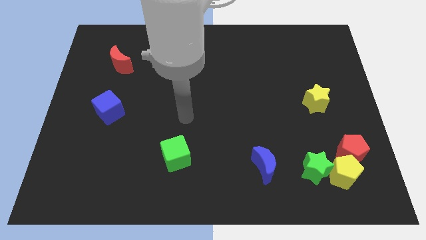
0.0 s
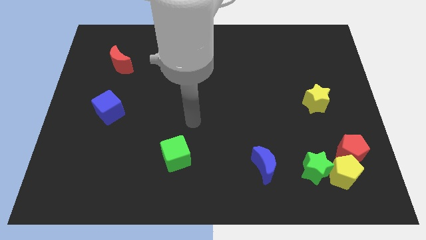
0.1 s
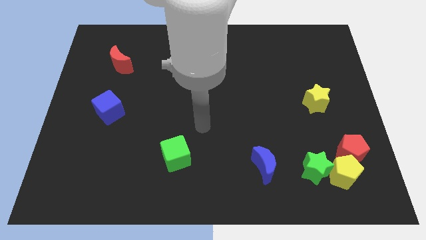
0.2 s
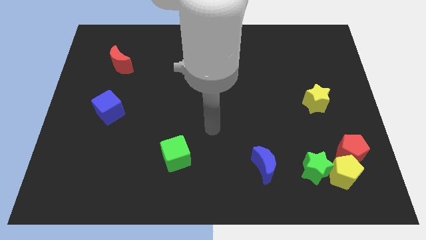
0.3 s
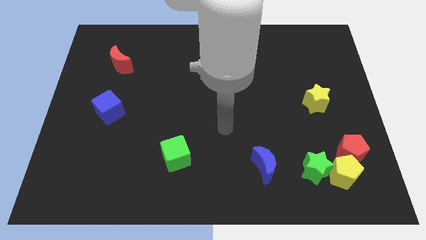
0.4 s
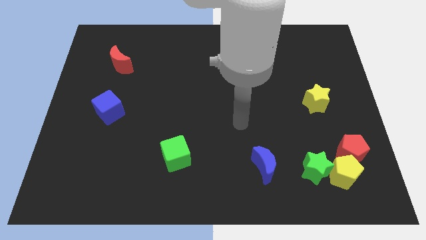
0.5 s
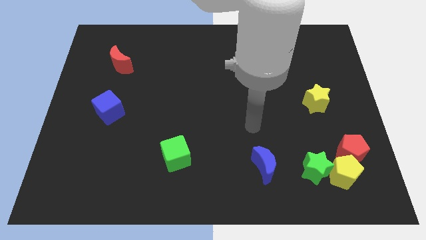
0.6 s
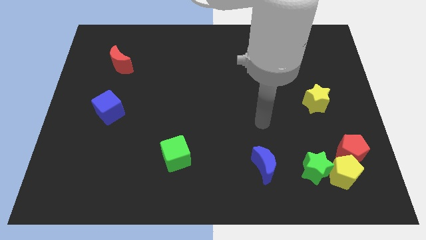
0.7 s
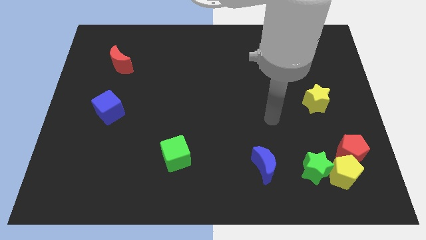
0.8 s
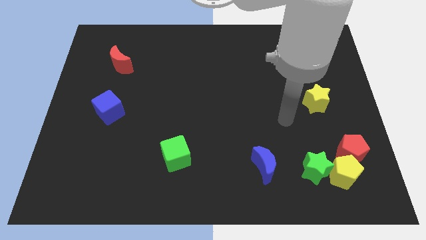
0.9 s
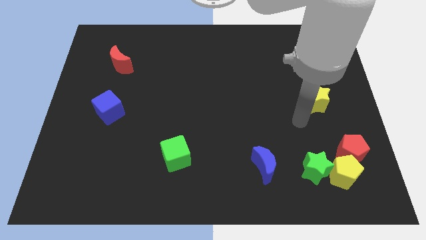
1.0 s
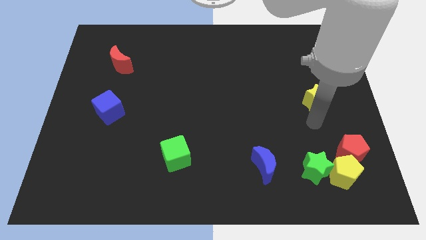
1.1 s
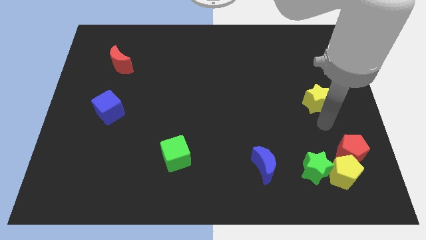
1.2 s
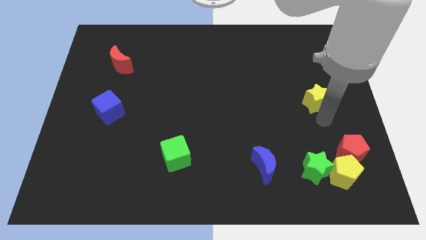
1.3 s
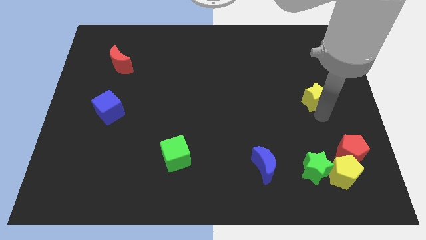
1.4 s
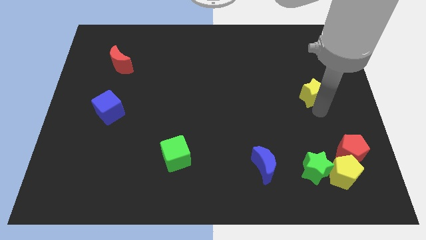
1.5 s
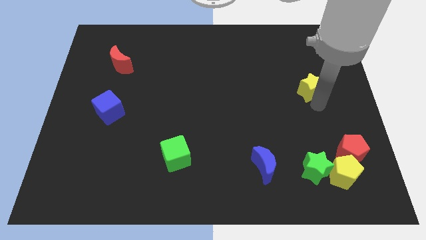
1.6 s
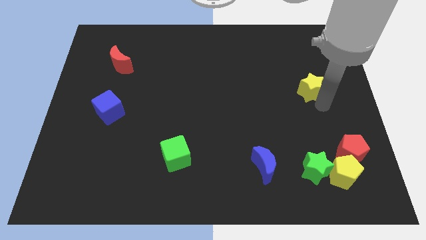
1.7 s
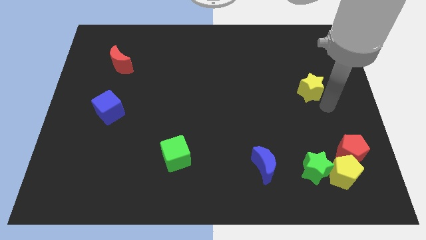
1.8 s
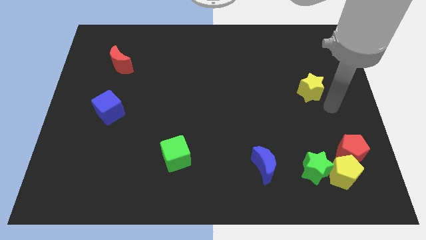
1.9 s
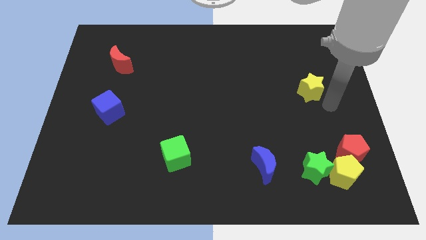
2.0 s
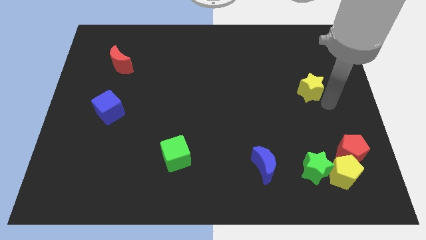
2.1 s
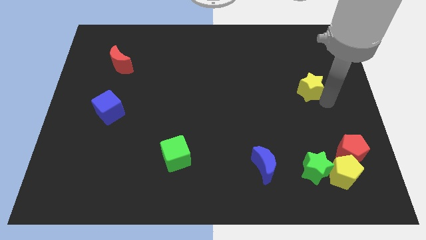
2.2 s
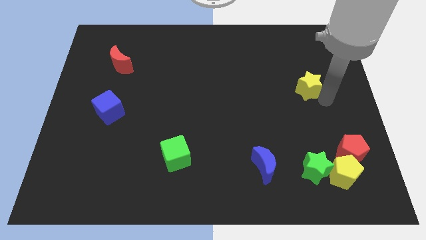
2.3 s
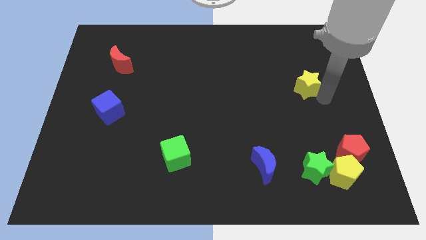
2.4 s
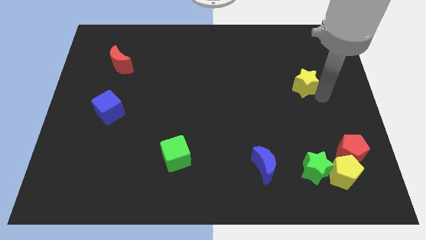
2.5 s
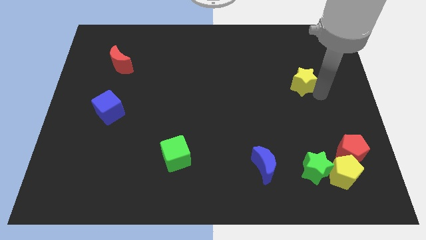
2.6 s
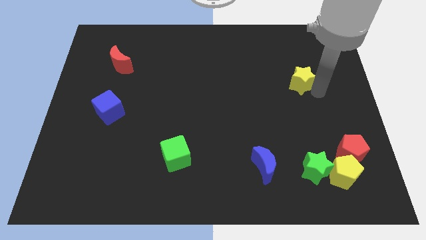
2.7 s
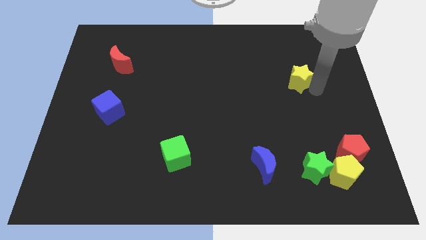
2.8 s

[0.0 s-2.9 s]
push the yellow star up and to the left diagonally a little

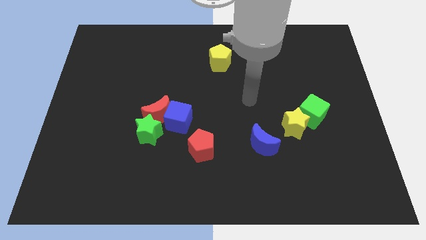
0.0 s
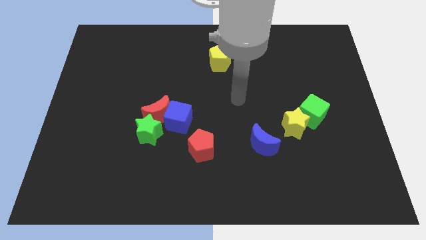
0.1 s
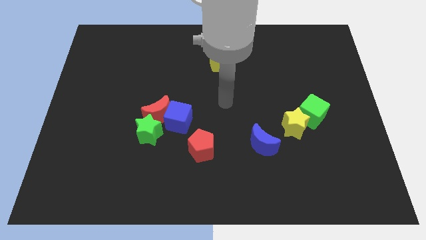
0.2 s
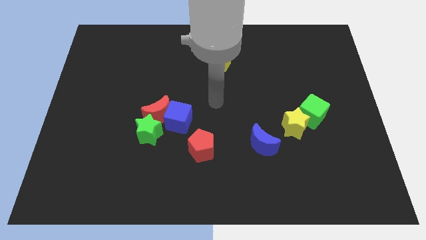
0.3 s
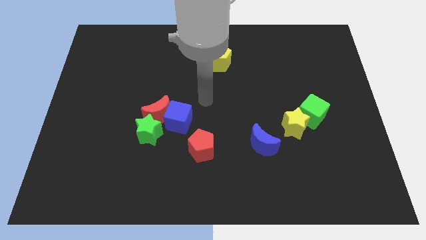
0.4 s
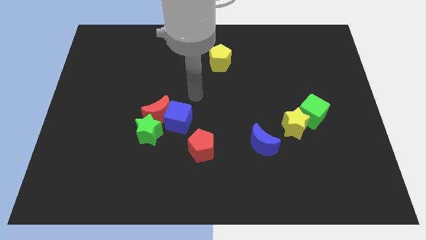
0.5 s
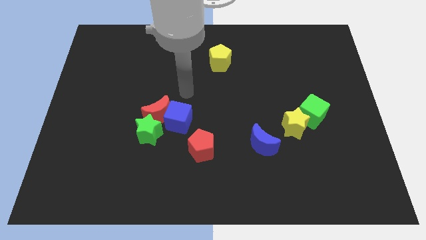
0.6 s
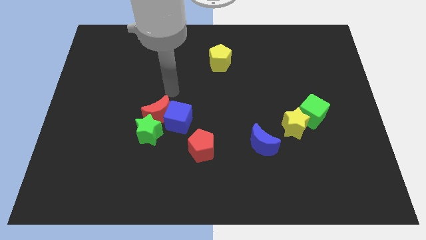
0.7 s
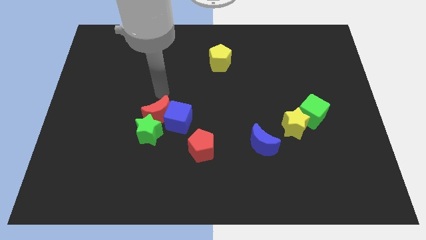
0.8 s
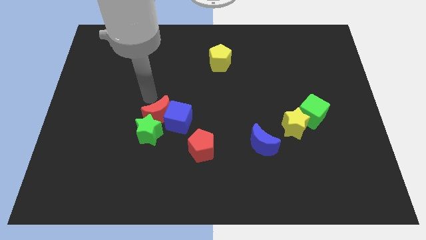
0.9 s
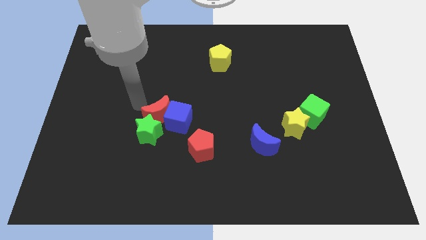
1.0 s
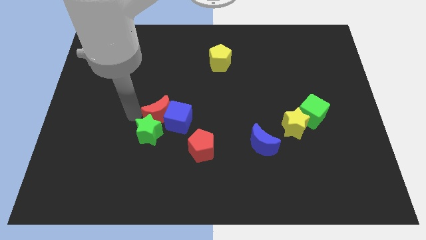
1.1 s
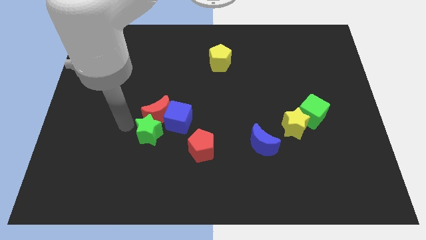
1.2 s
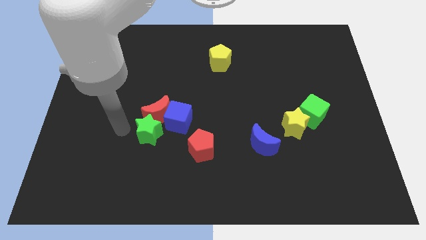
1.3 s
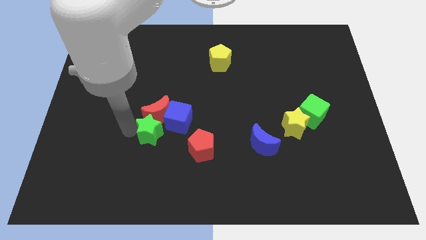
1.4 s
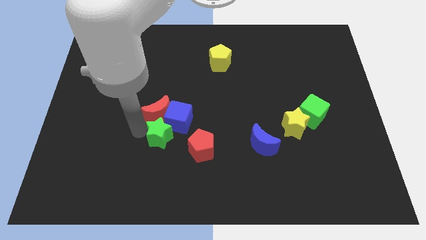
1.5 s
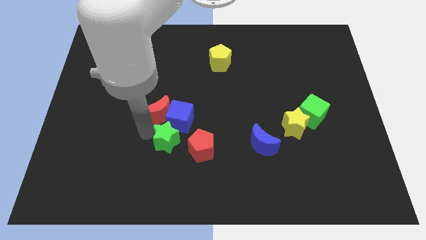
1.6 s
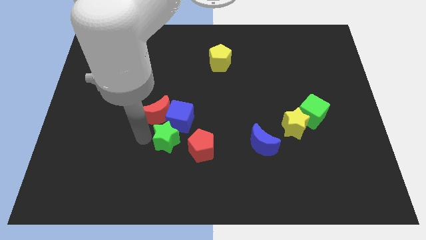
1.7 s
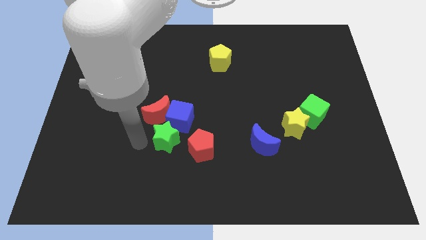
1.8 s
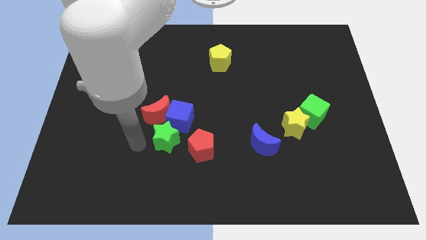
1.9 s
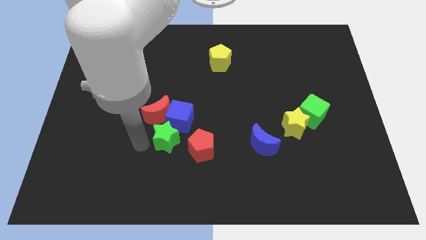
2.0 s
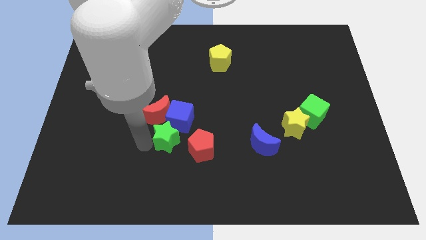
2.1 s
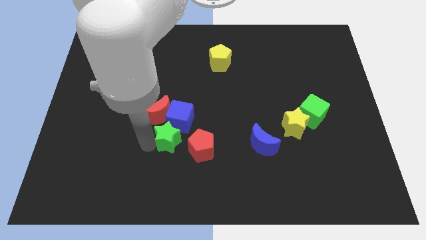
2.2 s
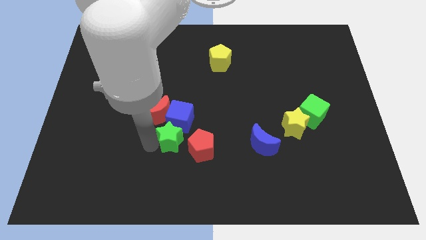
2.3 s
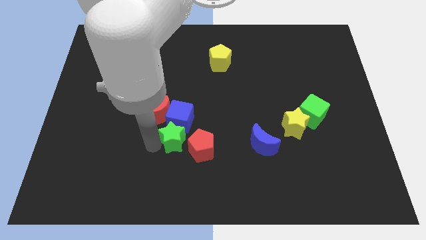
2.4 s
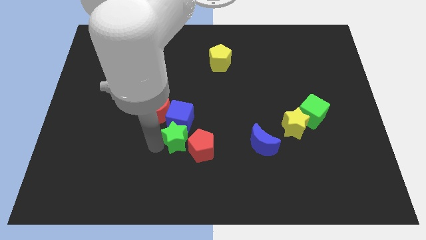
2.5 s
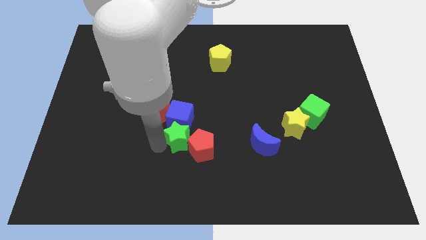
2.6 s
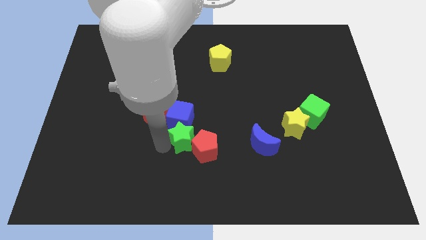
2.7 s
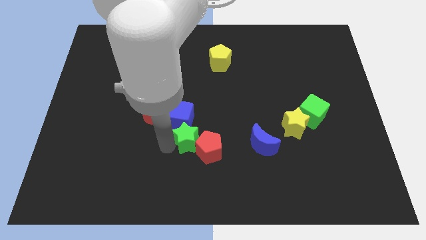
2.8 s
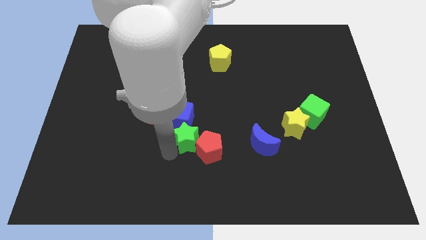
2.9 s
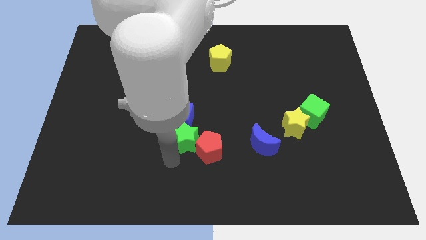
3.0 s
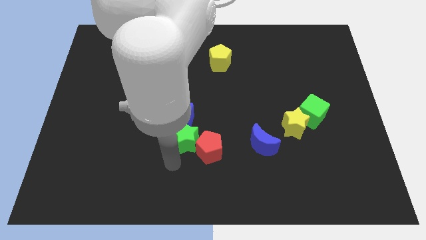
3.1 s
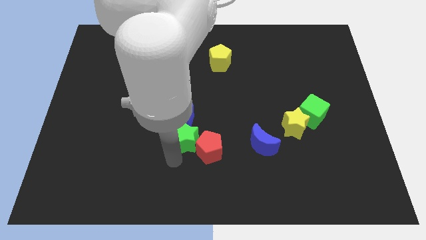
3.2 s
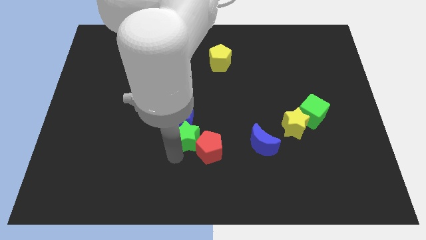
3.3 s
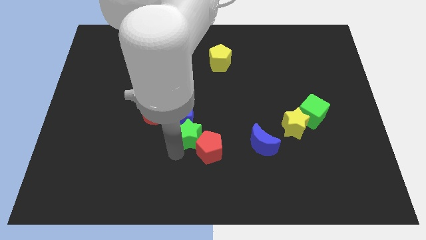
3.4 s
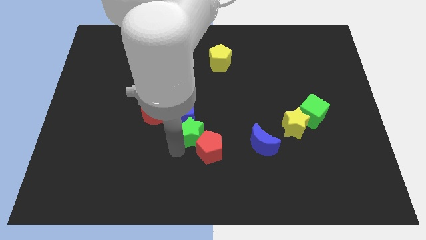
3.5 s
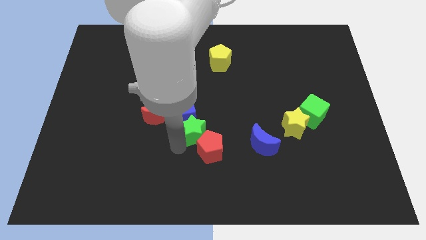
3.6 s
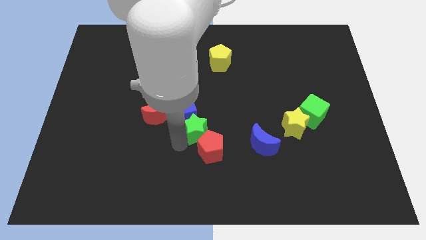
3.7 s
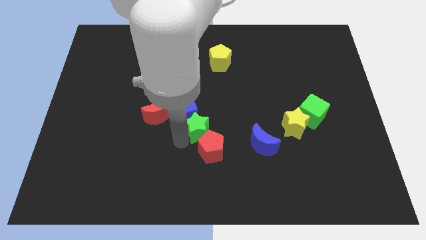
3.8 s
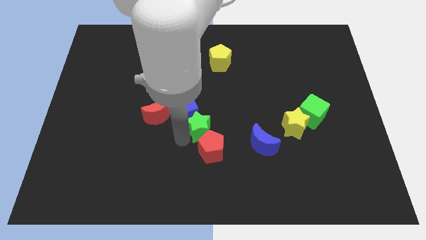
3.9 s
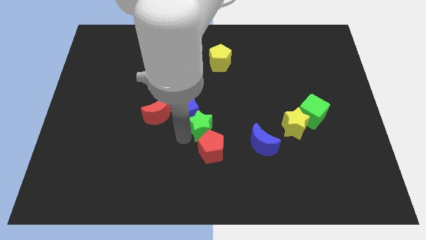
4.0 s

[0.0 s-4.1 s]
push the green star diagonally upwards and right somewhat

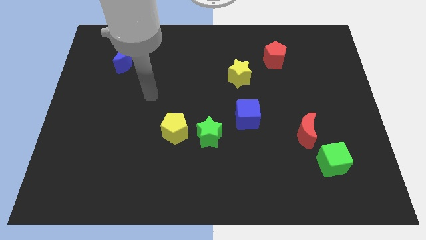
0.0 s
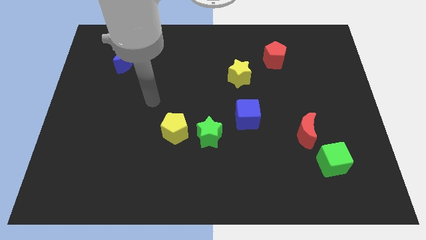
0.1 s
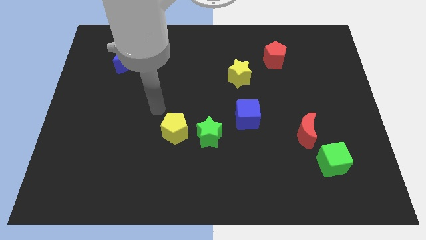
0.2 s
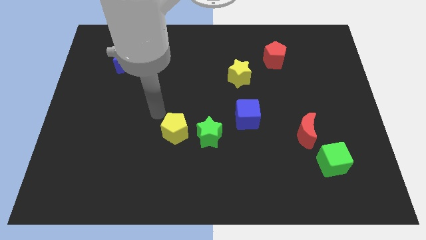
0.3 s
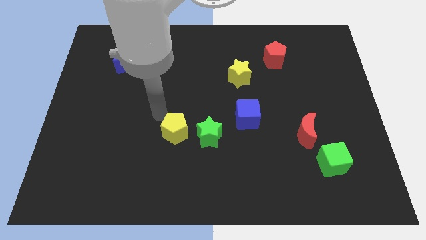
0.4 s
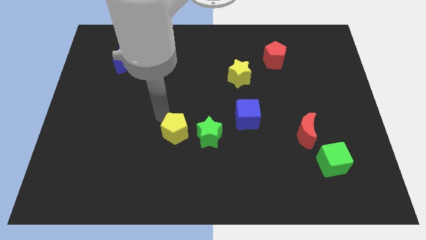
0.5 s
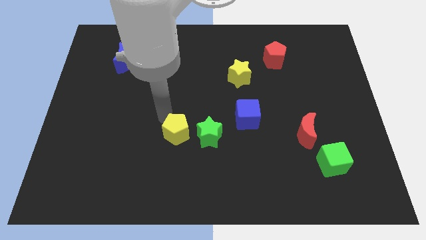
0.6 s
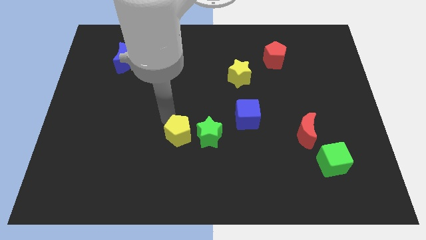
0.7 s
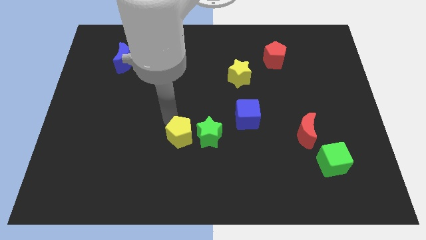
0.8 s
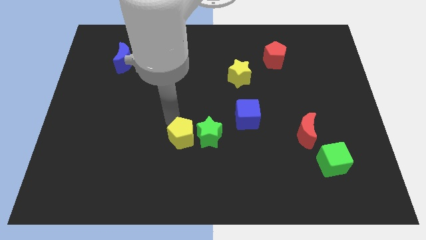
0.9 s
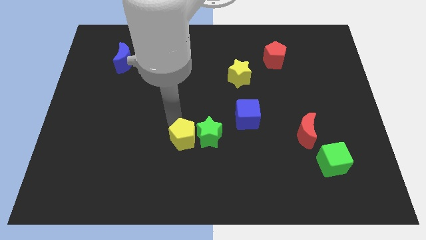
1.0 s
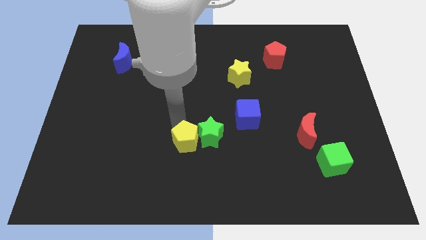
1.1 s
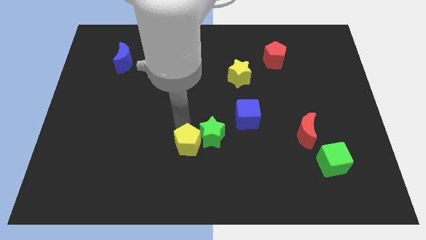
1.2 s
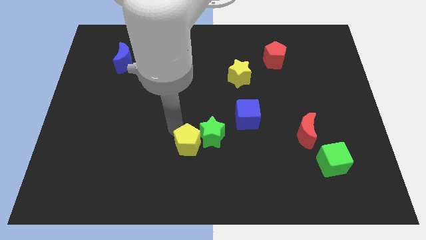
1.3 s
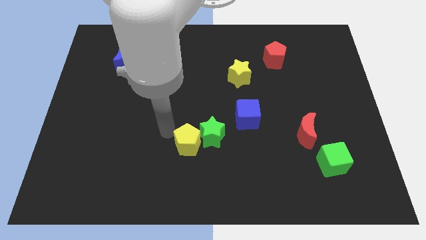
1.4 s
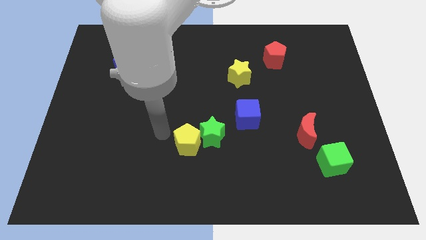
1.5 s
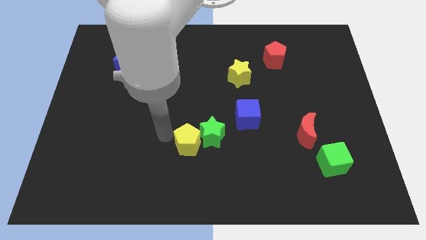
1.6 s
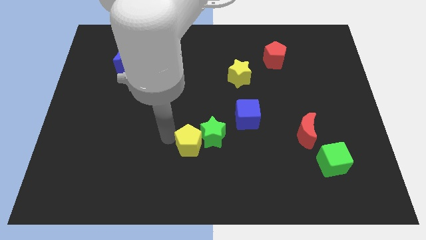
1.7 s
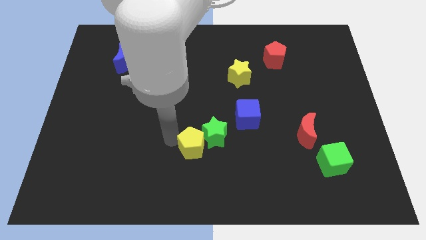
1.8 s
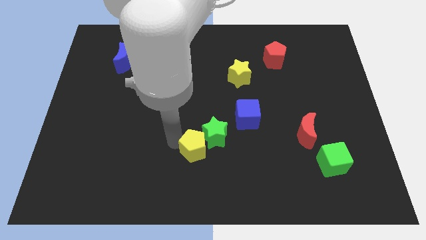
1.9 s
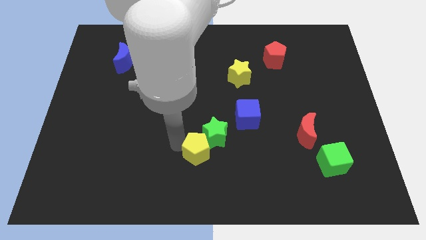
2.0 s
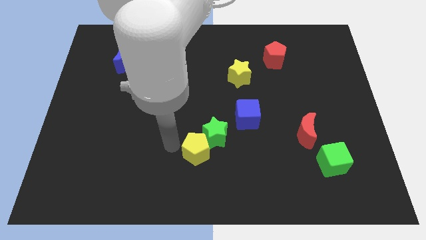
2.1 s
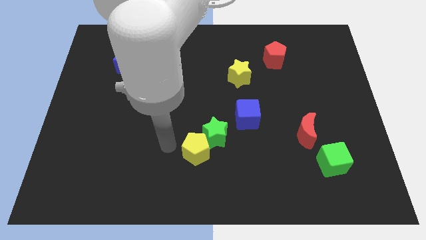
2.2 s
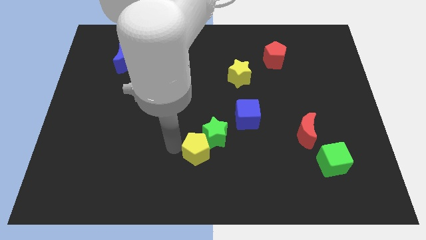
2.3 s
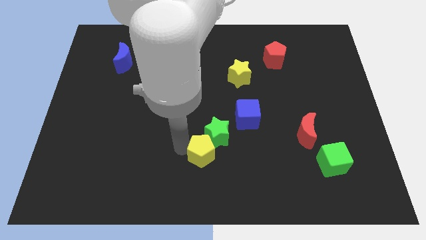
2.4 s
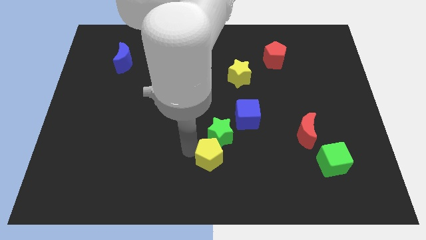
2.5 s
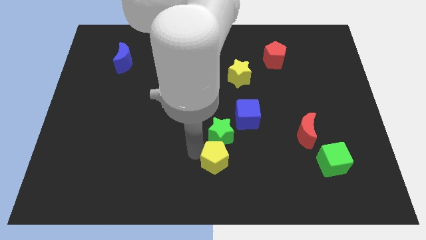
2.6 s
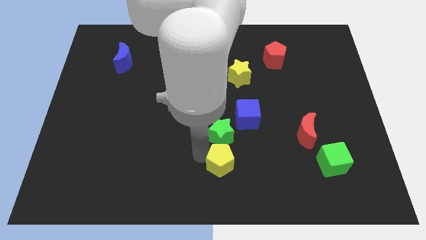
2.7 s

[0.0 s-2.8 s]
push the yellow pentagon to the right a bit
